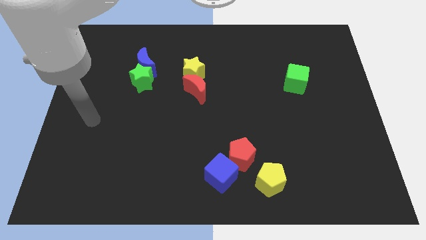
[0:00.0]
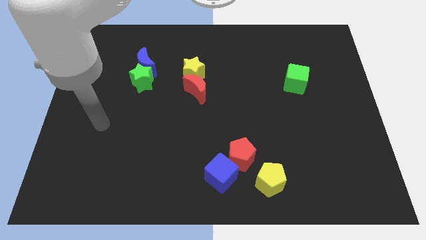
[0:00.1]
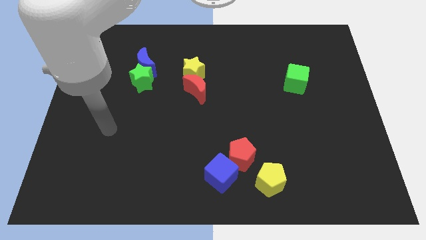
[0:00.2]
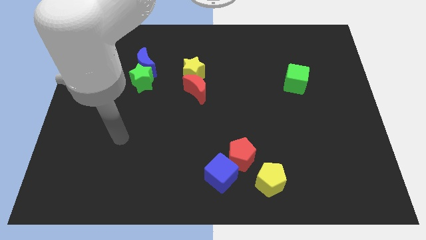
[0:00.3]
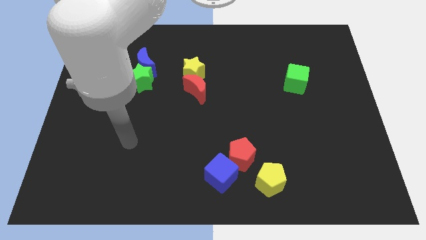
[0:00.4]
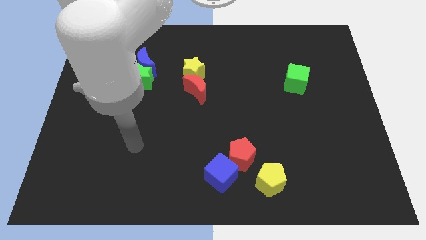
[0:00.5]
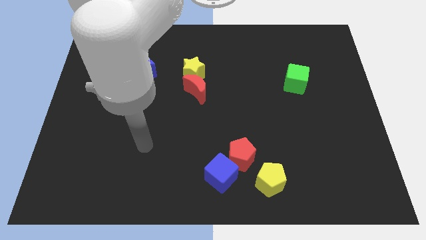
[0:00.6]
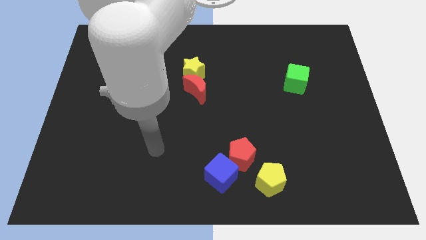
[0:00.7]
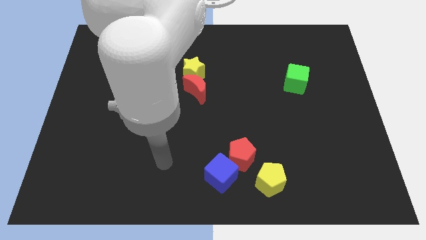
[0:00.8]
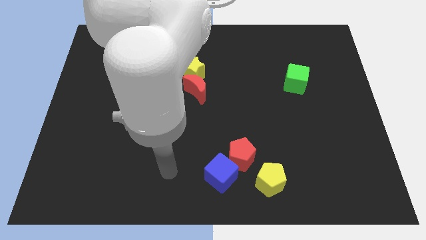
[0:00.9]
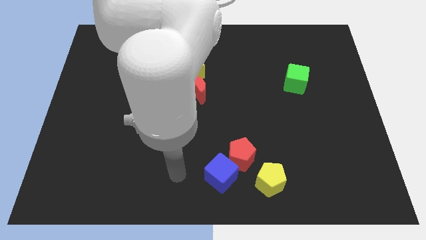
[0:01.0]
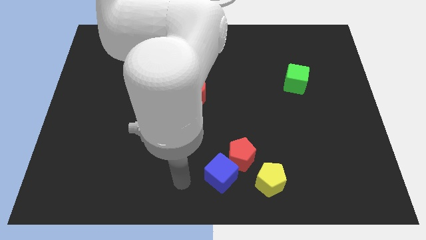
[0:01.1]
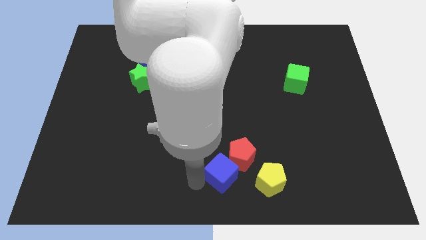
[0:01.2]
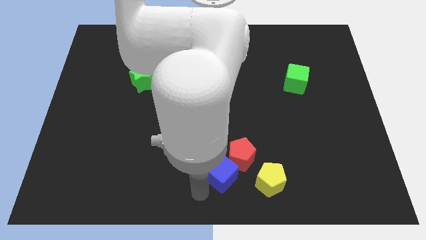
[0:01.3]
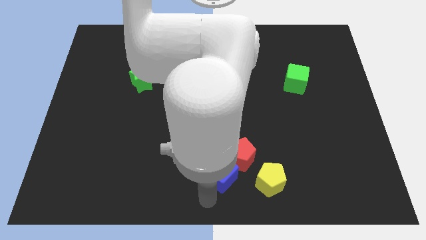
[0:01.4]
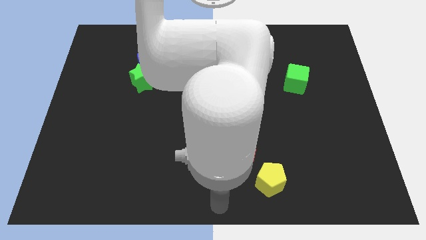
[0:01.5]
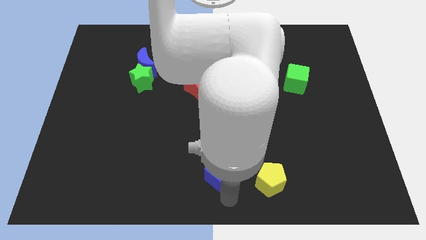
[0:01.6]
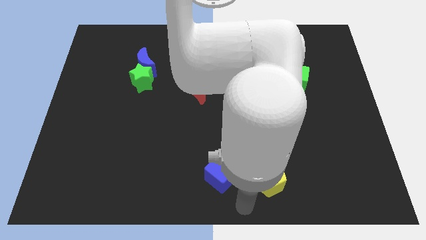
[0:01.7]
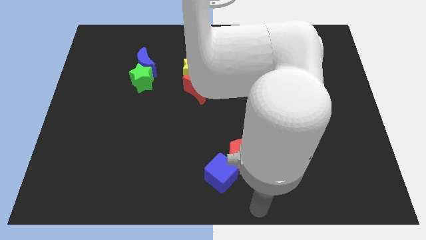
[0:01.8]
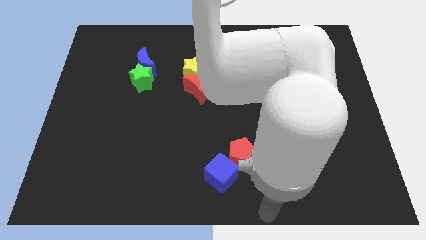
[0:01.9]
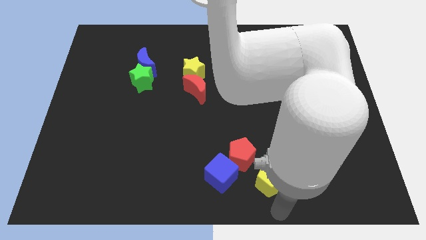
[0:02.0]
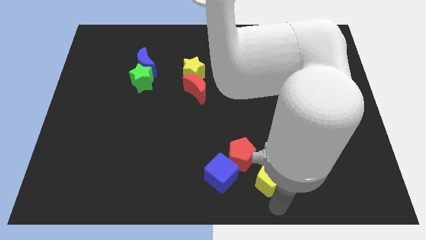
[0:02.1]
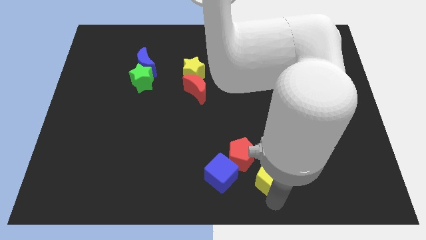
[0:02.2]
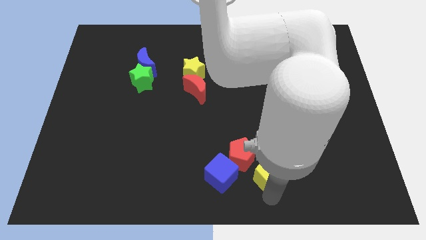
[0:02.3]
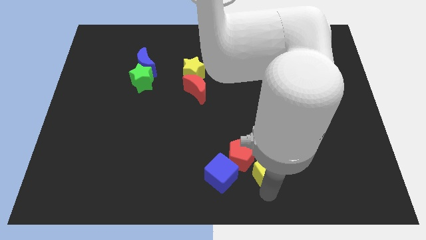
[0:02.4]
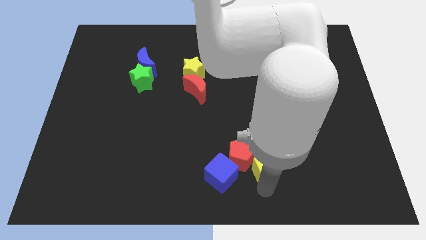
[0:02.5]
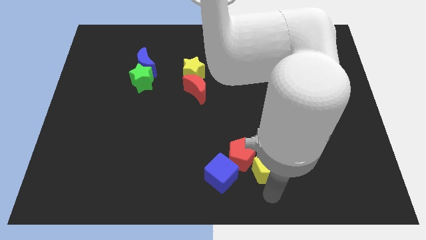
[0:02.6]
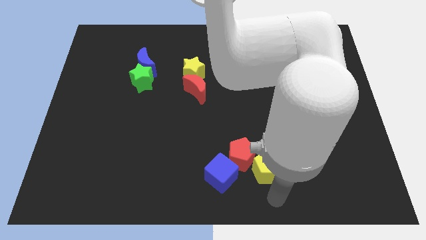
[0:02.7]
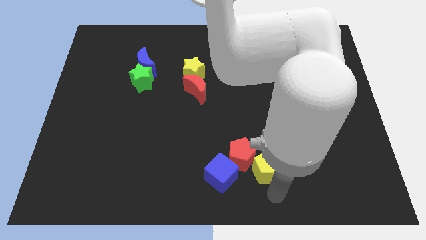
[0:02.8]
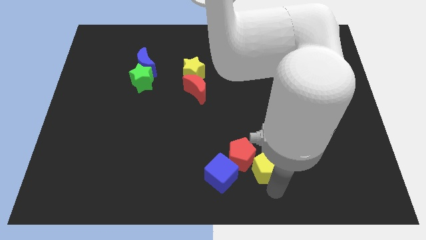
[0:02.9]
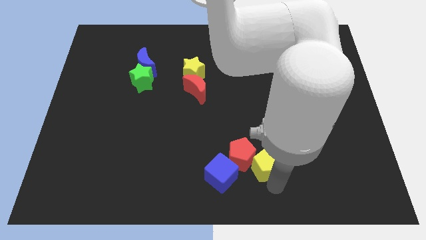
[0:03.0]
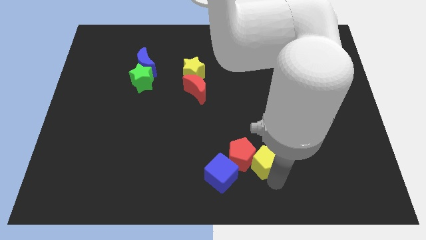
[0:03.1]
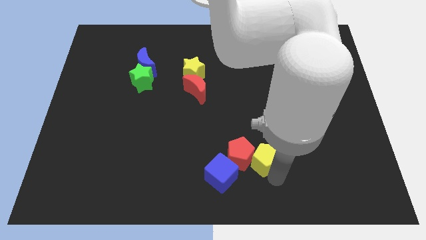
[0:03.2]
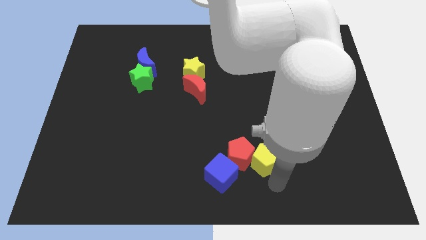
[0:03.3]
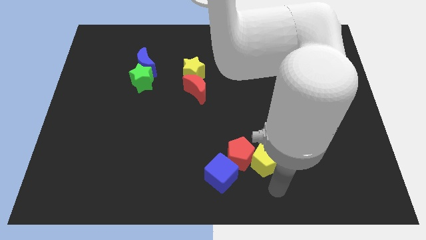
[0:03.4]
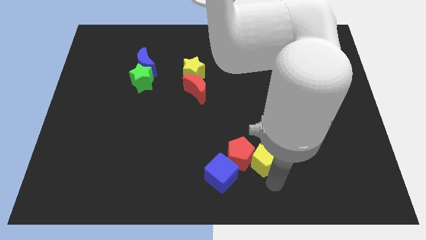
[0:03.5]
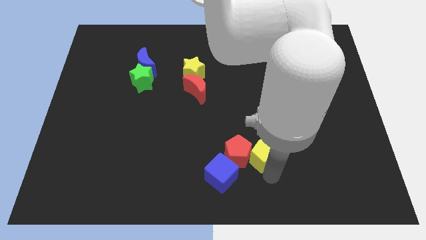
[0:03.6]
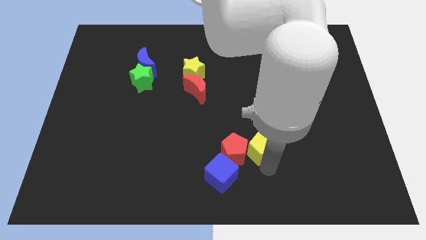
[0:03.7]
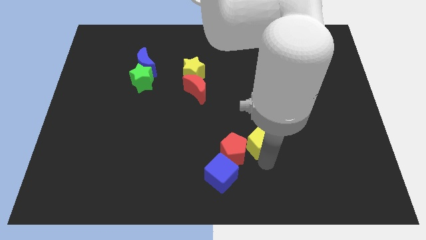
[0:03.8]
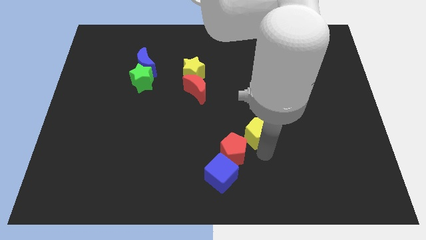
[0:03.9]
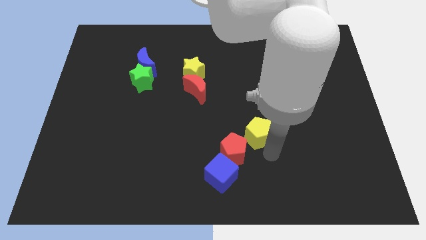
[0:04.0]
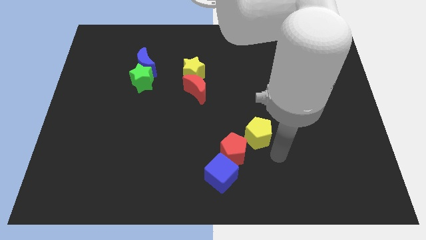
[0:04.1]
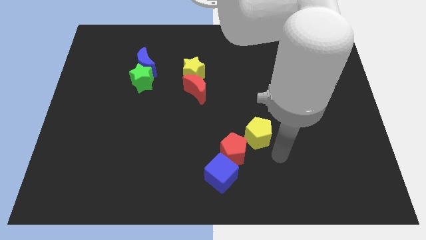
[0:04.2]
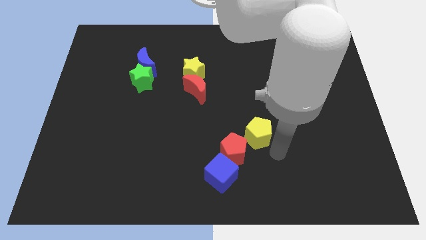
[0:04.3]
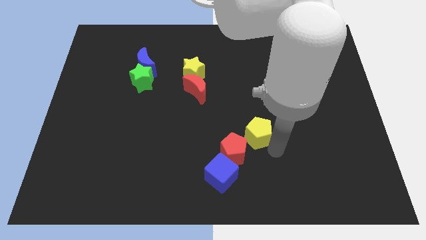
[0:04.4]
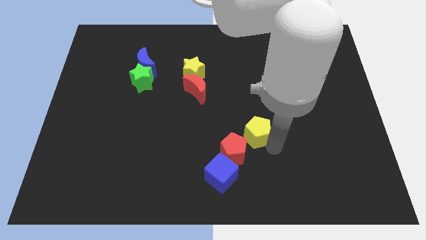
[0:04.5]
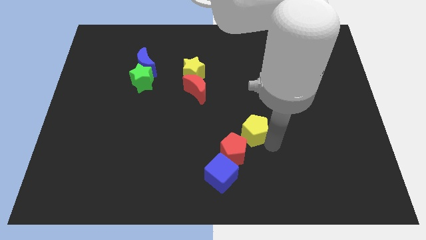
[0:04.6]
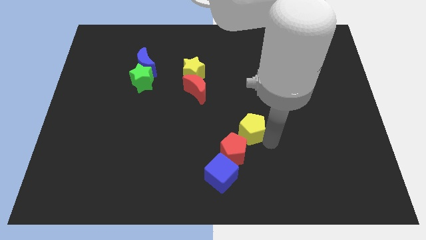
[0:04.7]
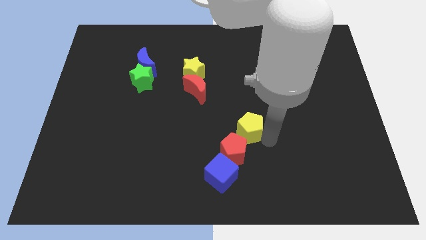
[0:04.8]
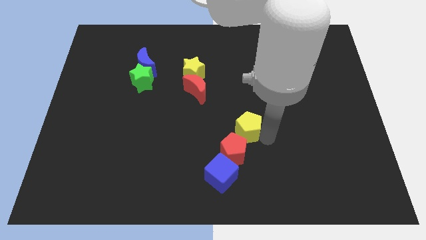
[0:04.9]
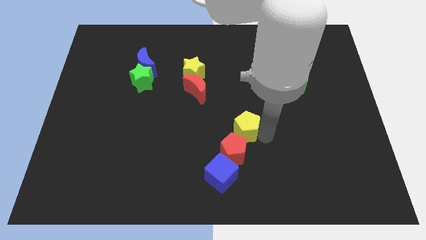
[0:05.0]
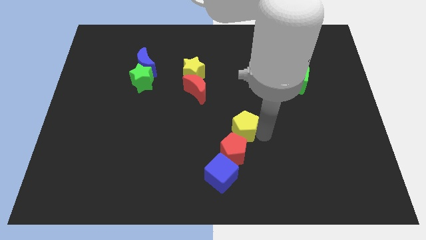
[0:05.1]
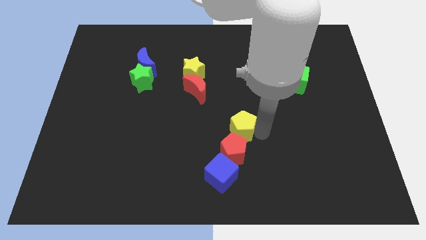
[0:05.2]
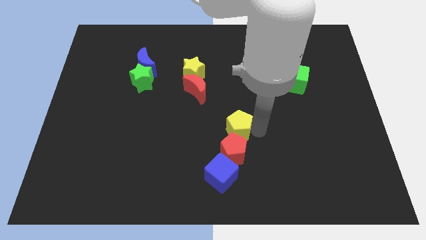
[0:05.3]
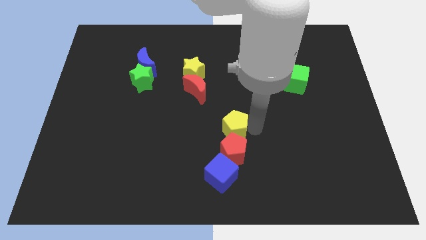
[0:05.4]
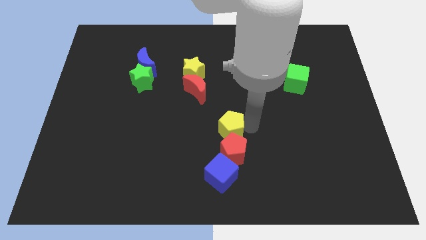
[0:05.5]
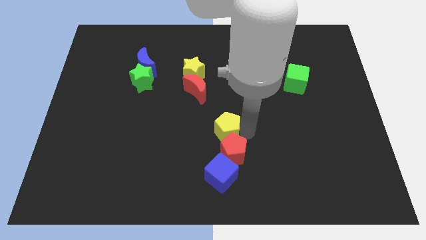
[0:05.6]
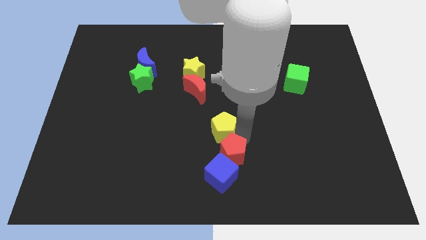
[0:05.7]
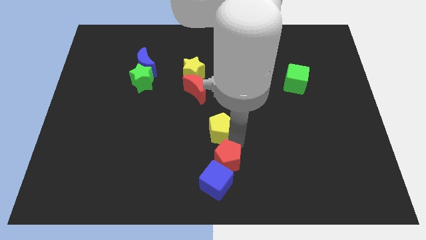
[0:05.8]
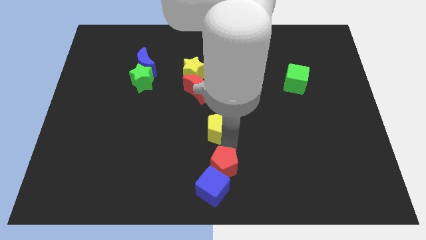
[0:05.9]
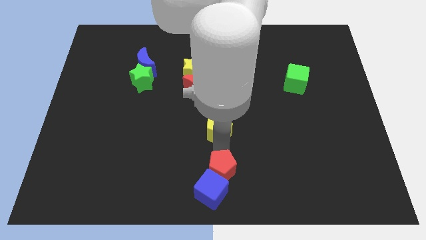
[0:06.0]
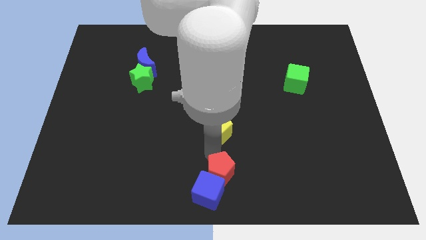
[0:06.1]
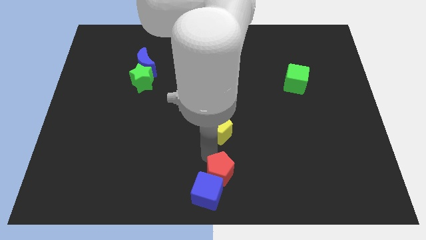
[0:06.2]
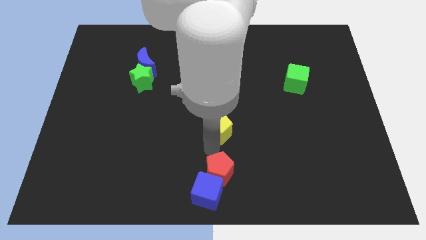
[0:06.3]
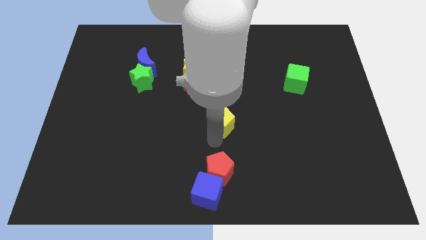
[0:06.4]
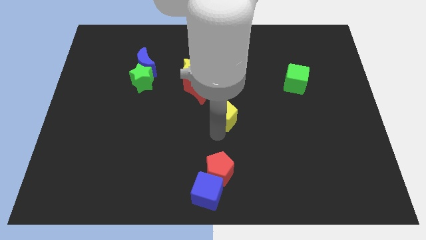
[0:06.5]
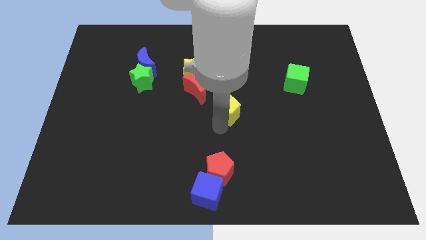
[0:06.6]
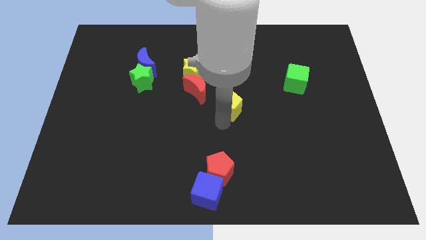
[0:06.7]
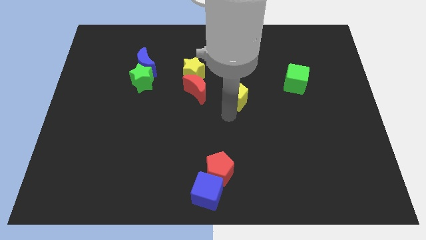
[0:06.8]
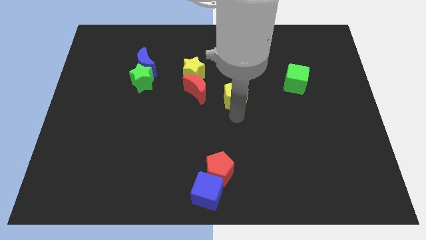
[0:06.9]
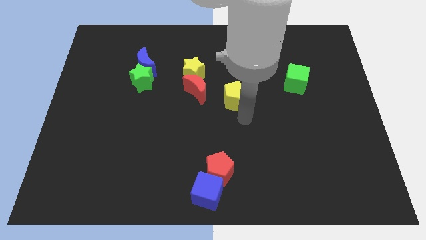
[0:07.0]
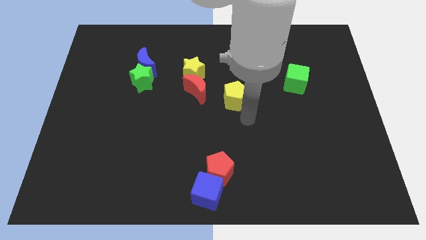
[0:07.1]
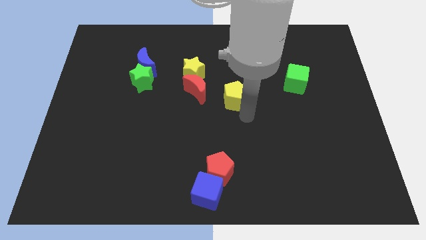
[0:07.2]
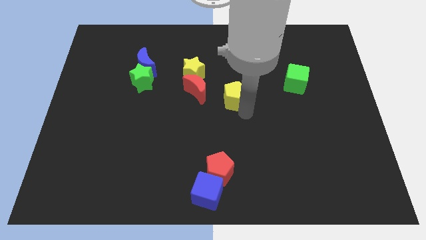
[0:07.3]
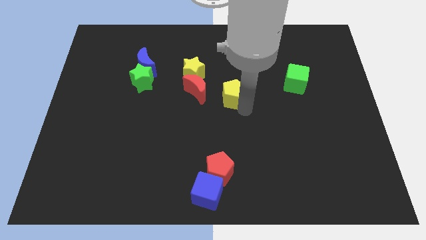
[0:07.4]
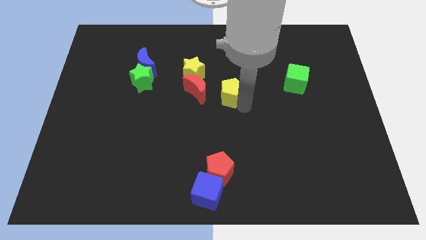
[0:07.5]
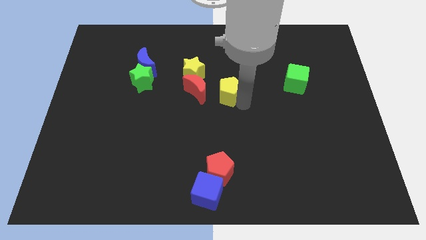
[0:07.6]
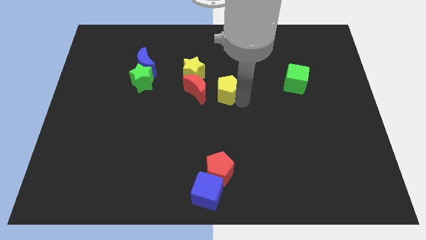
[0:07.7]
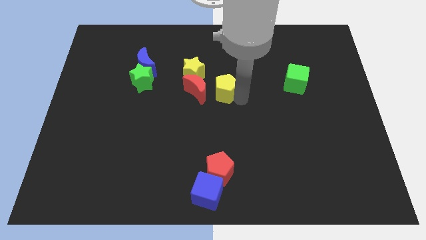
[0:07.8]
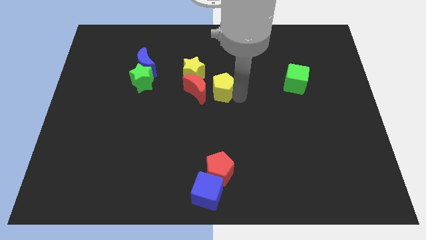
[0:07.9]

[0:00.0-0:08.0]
push the yellow pentagon to the top right side of the red moon

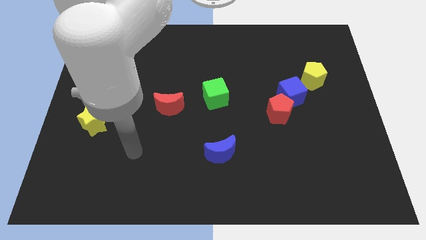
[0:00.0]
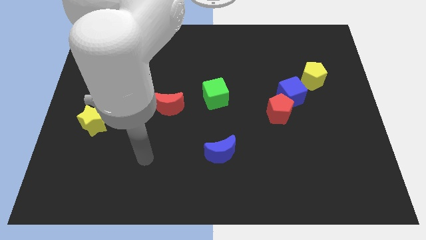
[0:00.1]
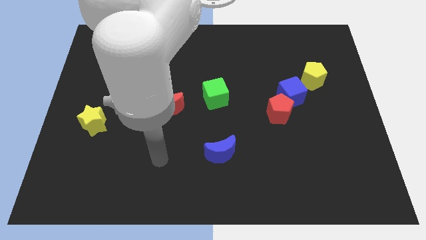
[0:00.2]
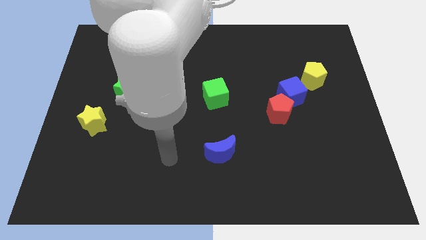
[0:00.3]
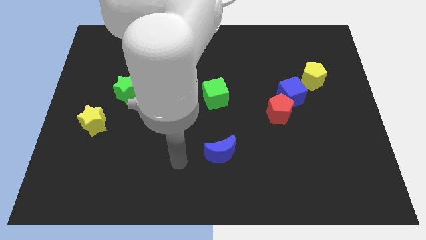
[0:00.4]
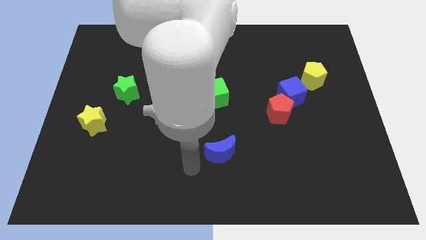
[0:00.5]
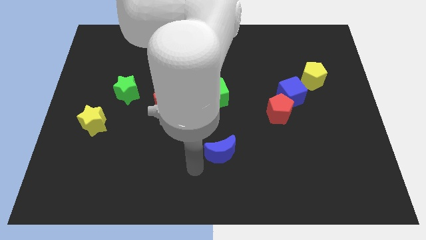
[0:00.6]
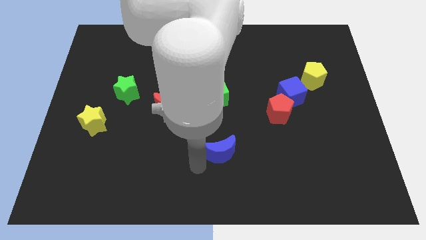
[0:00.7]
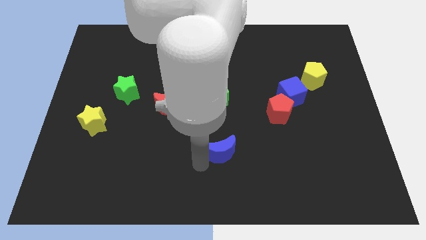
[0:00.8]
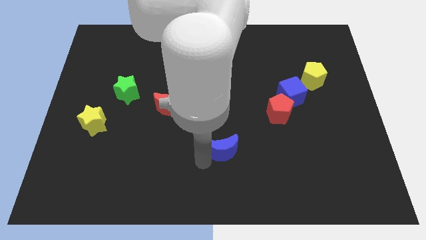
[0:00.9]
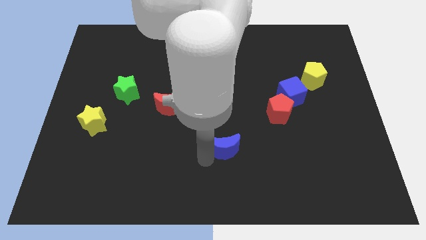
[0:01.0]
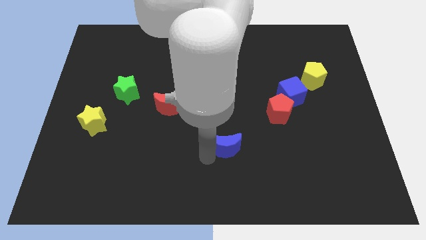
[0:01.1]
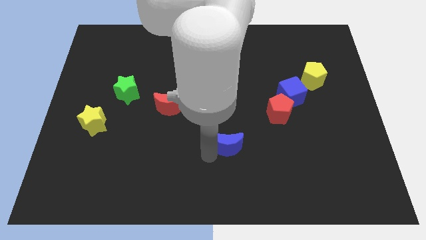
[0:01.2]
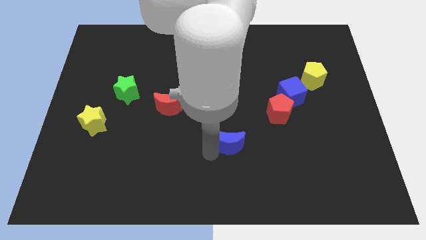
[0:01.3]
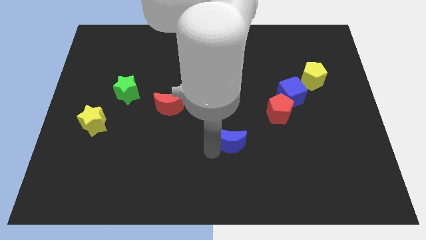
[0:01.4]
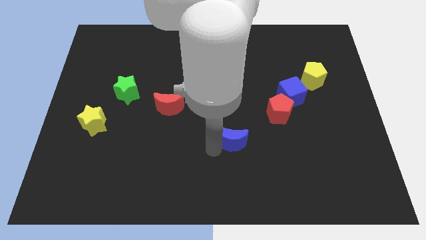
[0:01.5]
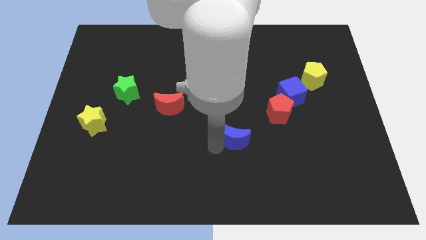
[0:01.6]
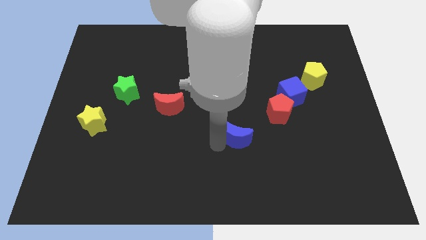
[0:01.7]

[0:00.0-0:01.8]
move the blue moon to the bottom left side of the red pentagon
